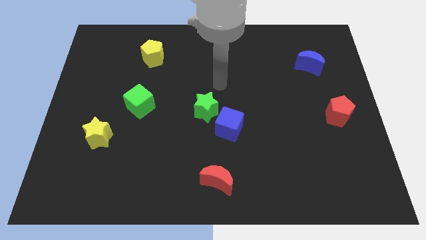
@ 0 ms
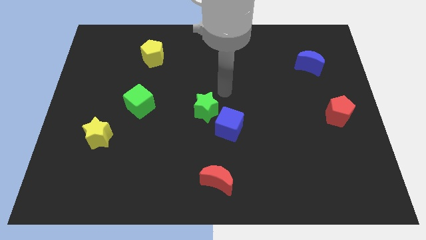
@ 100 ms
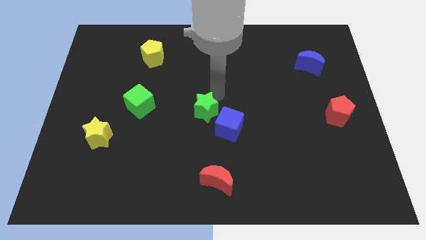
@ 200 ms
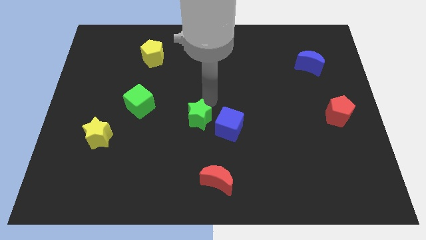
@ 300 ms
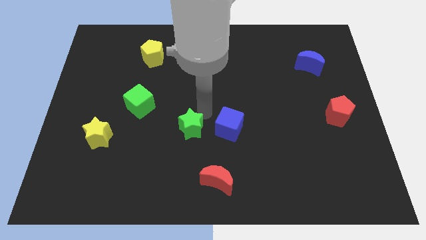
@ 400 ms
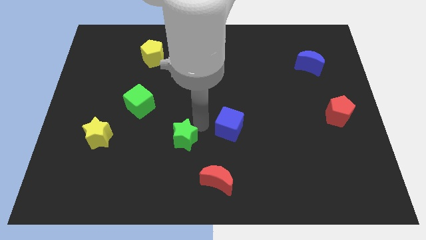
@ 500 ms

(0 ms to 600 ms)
separate the blue cube from the green star
